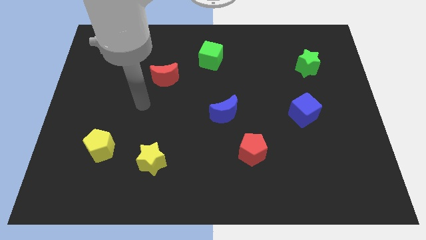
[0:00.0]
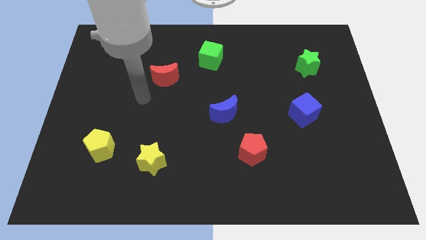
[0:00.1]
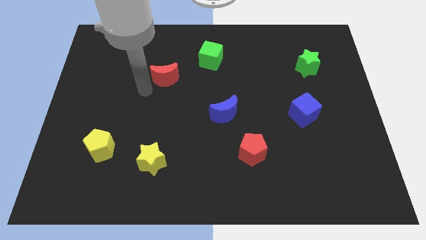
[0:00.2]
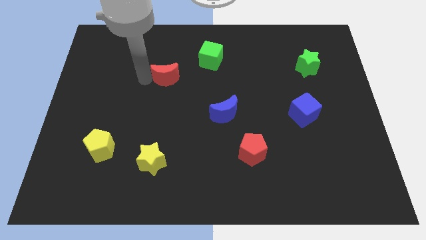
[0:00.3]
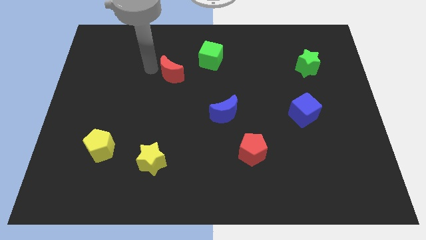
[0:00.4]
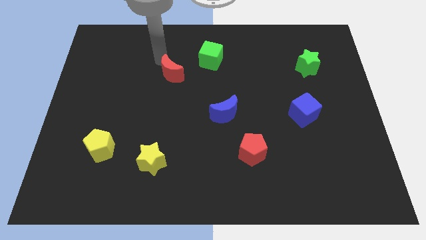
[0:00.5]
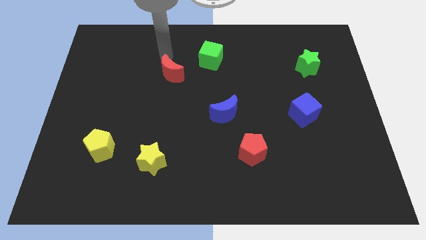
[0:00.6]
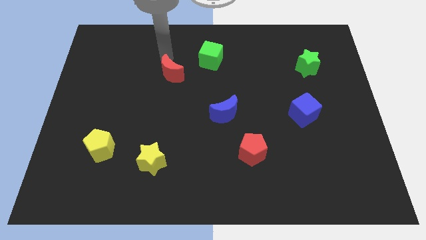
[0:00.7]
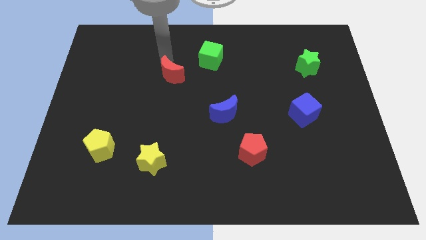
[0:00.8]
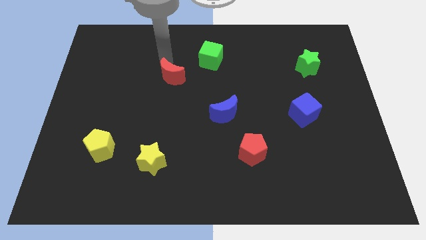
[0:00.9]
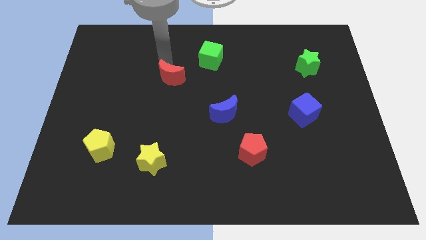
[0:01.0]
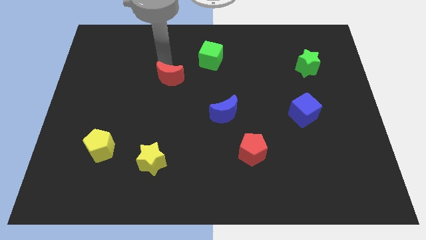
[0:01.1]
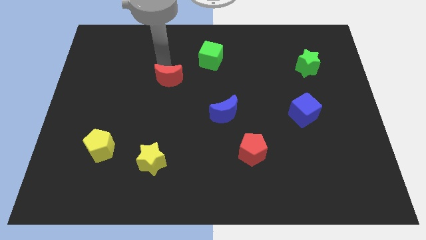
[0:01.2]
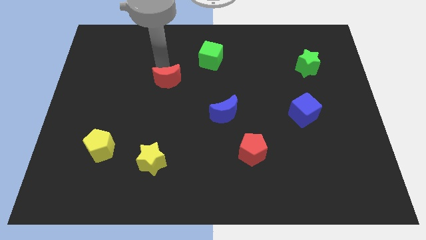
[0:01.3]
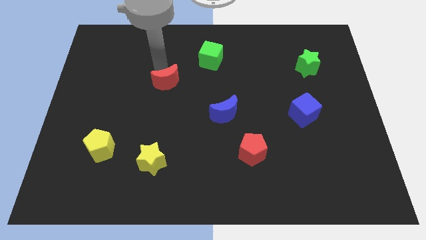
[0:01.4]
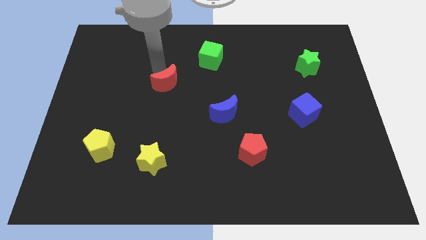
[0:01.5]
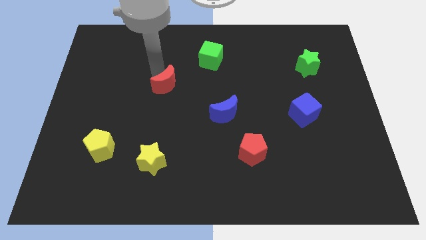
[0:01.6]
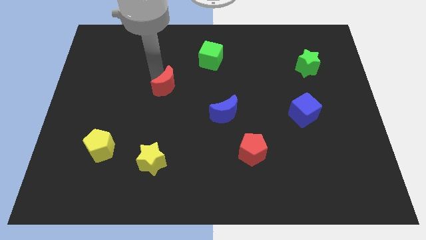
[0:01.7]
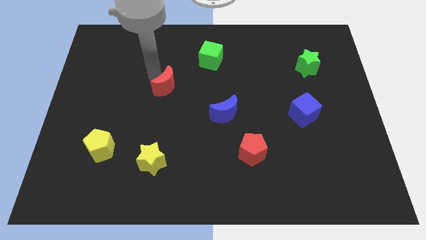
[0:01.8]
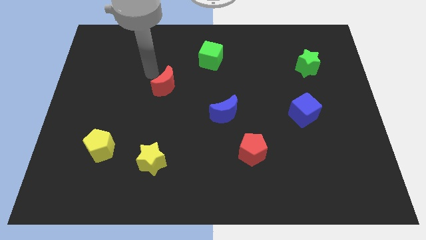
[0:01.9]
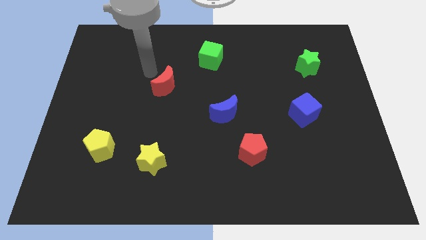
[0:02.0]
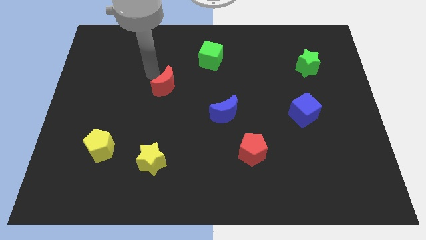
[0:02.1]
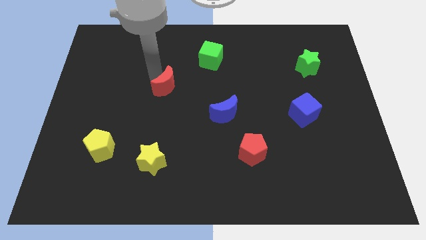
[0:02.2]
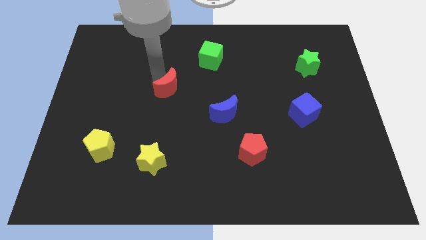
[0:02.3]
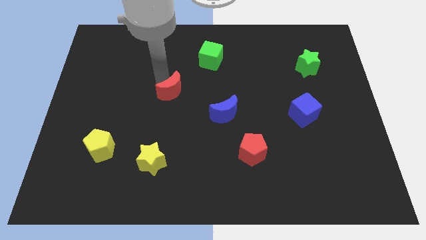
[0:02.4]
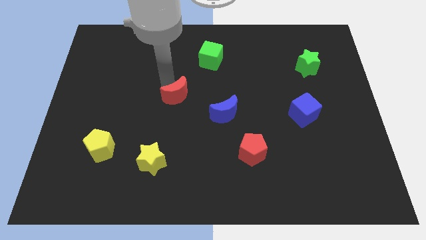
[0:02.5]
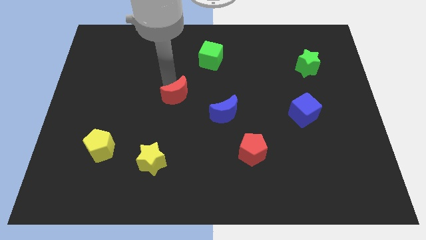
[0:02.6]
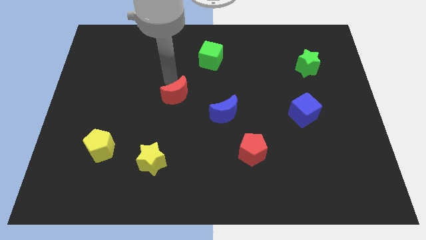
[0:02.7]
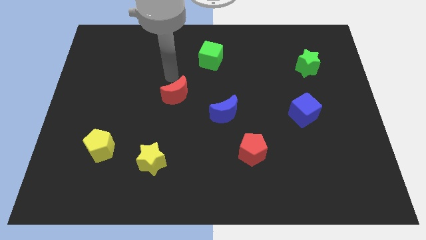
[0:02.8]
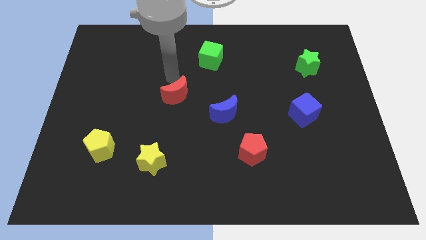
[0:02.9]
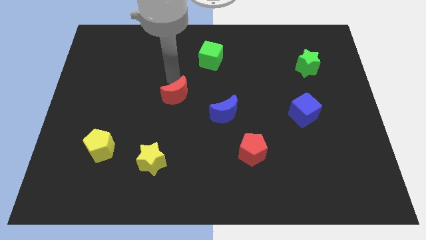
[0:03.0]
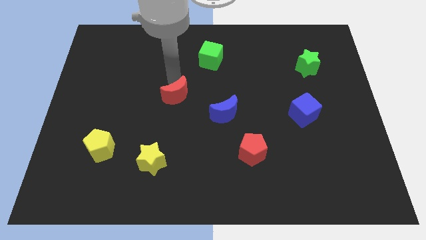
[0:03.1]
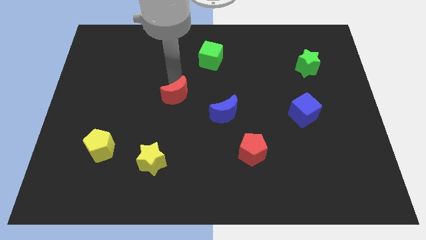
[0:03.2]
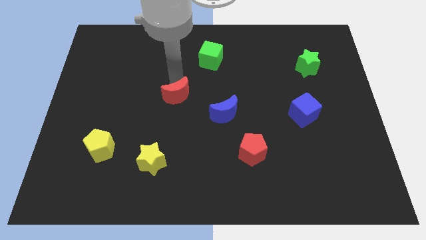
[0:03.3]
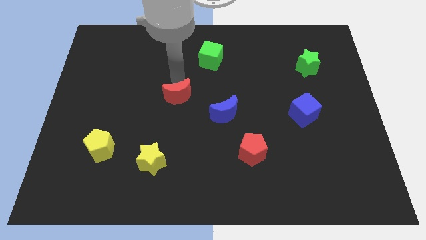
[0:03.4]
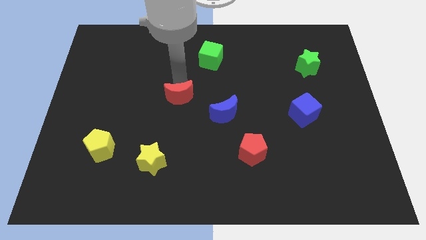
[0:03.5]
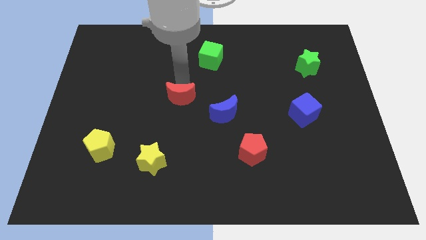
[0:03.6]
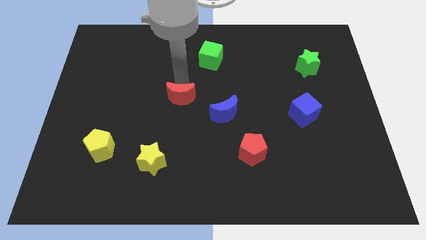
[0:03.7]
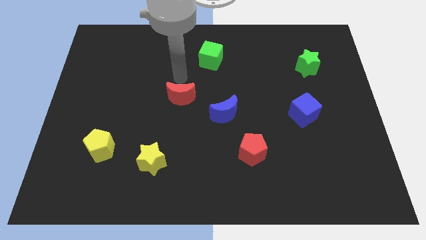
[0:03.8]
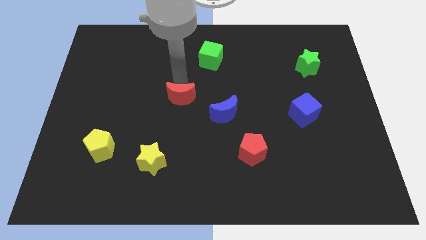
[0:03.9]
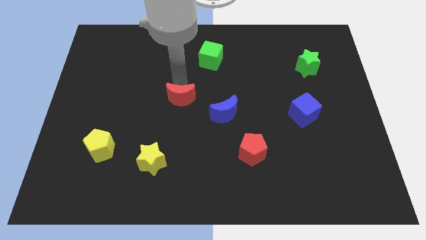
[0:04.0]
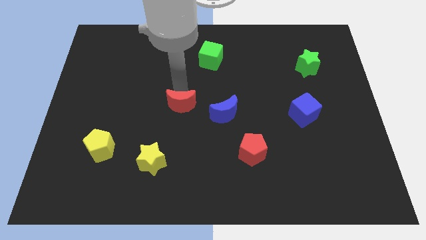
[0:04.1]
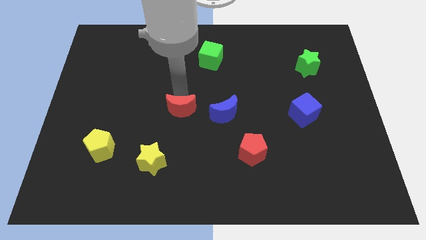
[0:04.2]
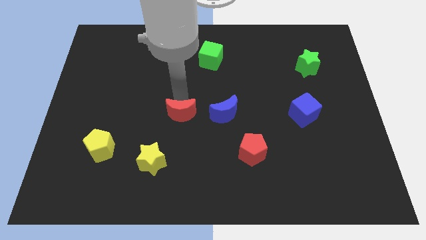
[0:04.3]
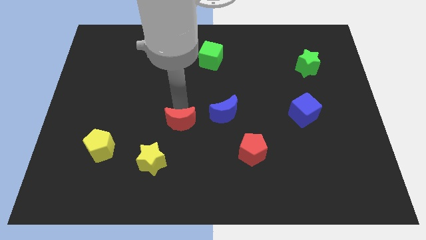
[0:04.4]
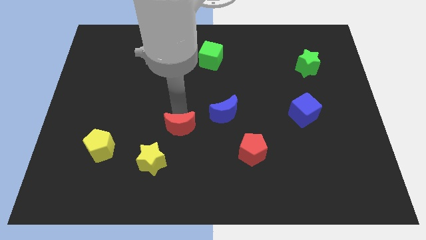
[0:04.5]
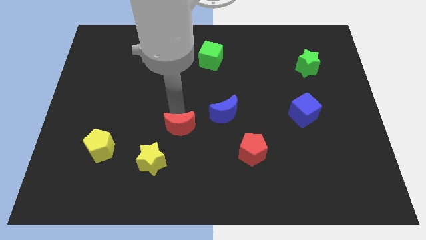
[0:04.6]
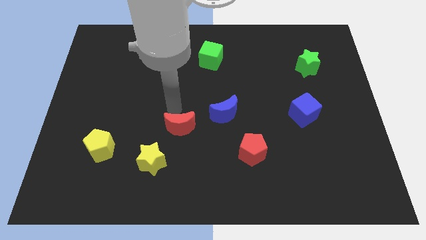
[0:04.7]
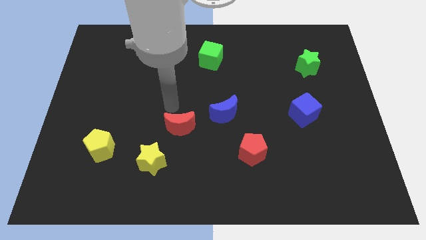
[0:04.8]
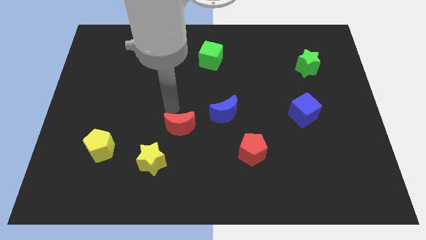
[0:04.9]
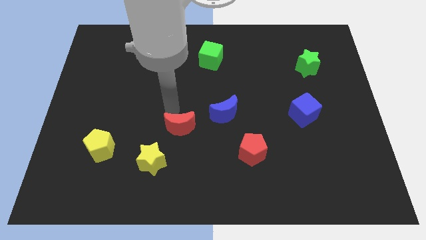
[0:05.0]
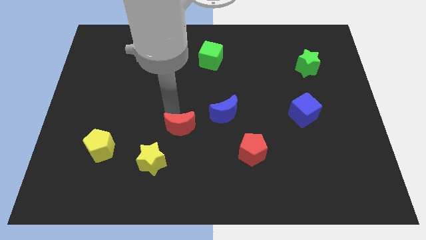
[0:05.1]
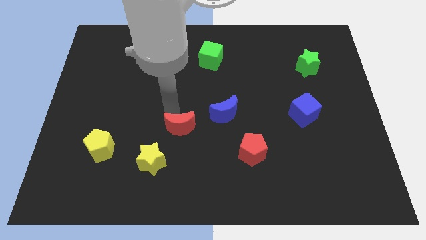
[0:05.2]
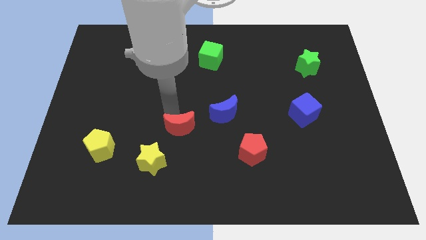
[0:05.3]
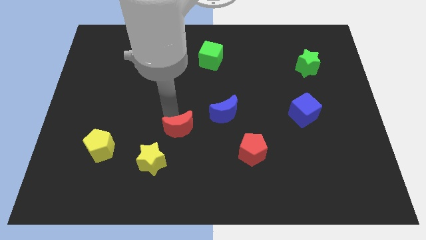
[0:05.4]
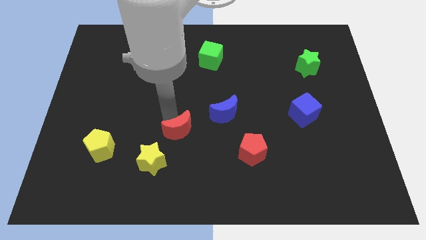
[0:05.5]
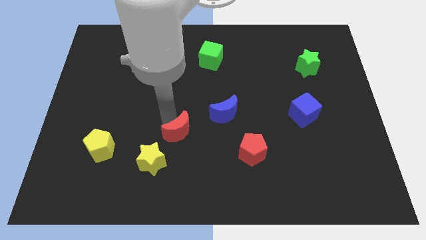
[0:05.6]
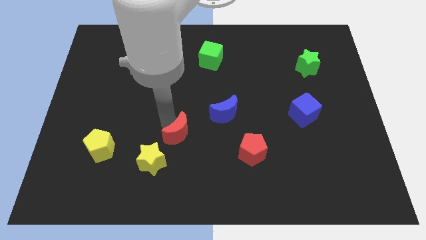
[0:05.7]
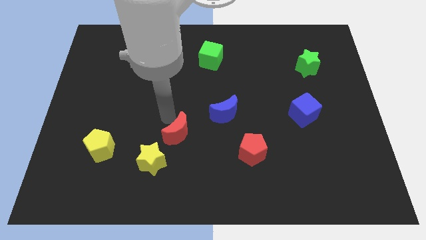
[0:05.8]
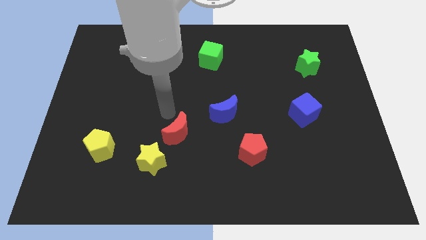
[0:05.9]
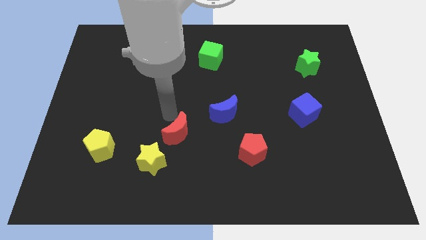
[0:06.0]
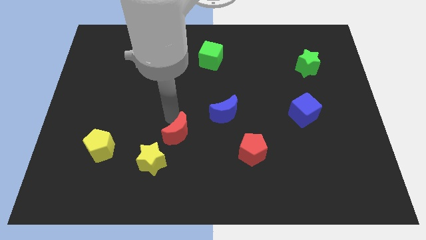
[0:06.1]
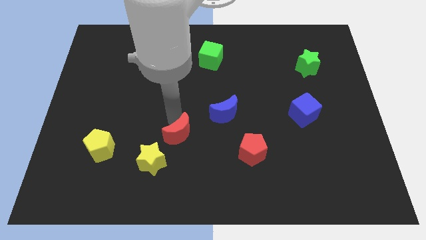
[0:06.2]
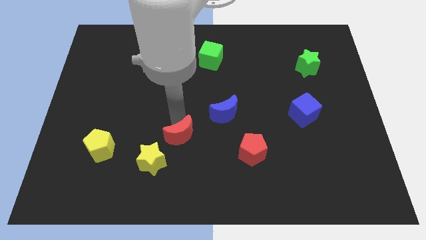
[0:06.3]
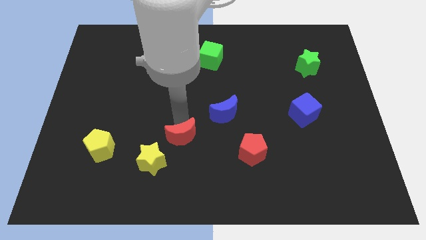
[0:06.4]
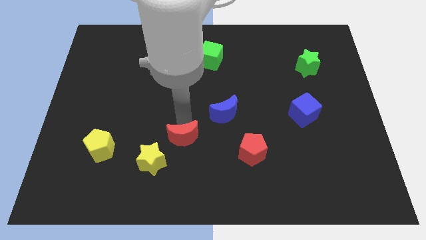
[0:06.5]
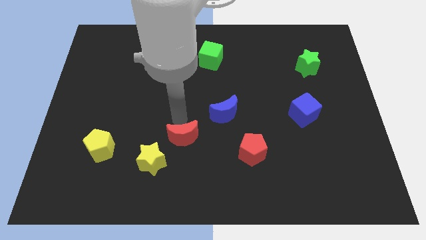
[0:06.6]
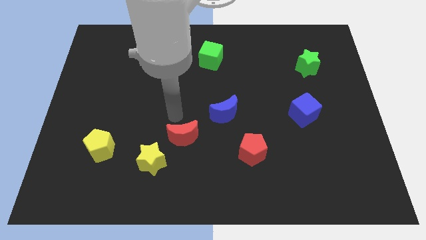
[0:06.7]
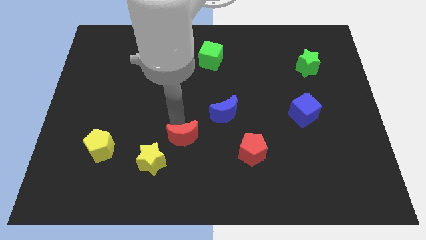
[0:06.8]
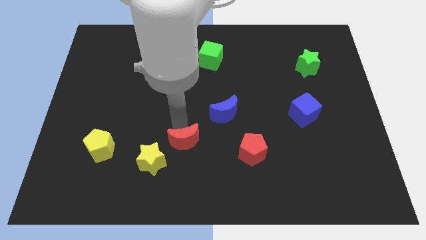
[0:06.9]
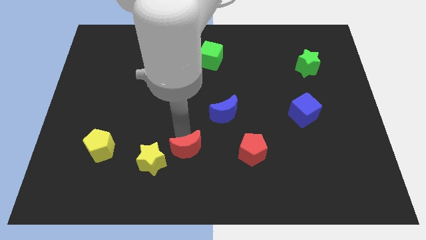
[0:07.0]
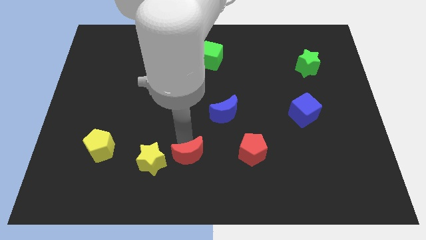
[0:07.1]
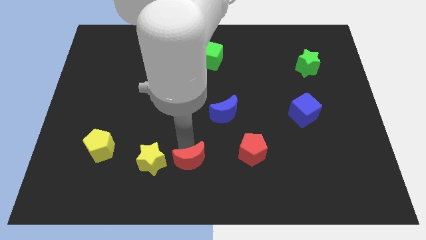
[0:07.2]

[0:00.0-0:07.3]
slide the red moon to the bottom side
